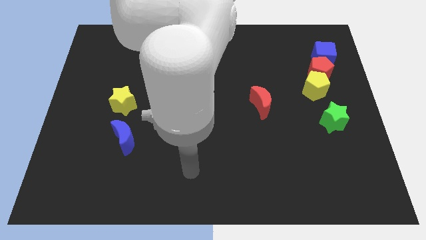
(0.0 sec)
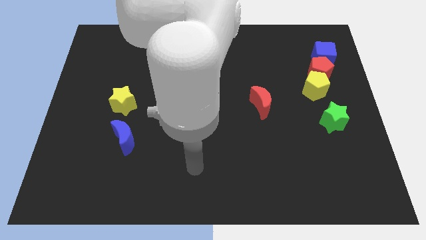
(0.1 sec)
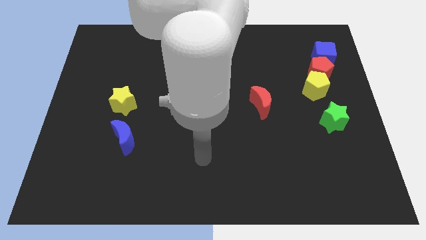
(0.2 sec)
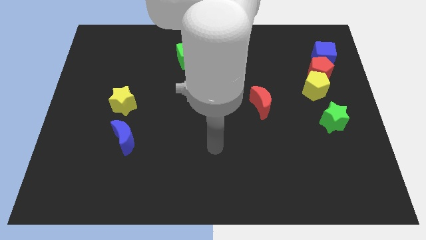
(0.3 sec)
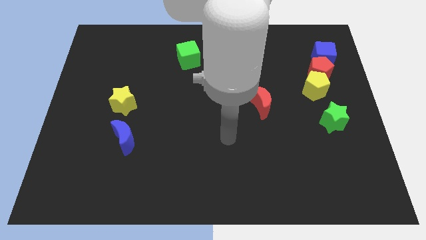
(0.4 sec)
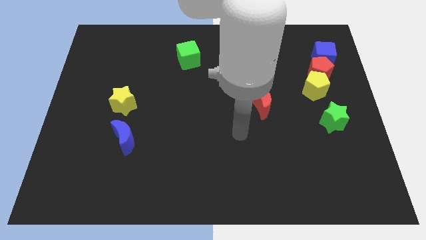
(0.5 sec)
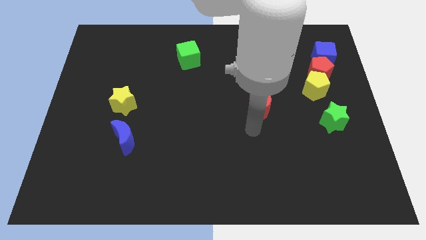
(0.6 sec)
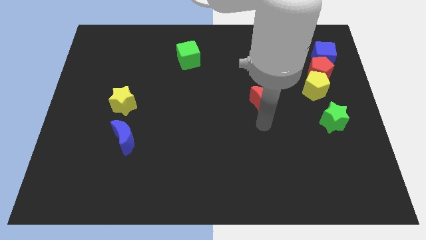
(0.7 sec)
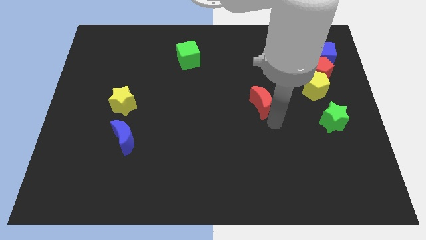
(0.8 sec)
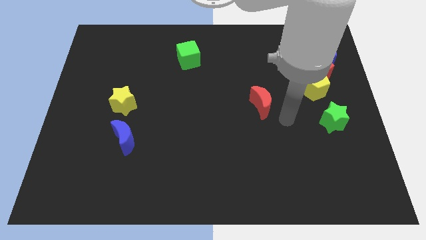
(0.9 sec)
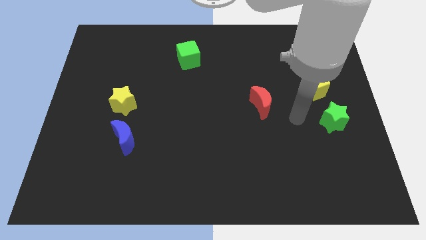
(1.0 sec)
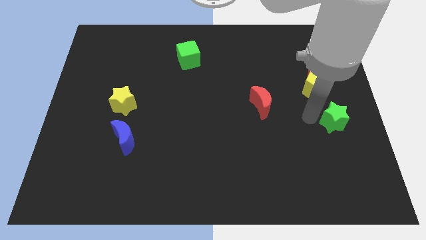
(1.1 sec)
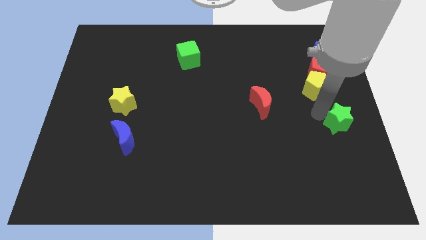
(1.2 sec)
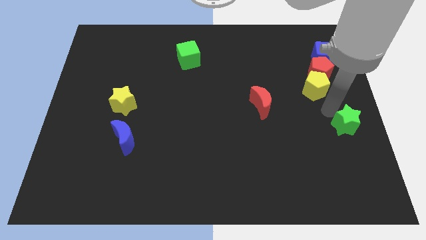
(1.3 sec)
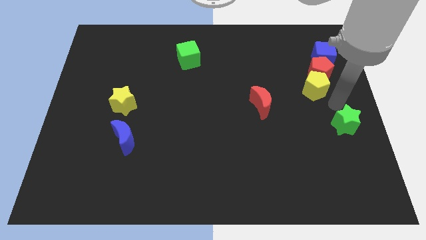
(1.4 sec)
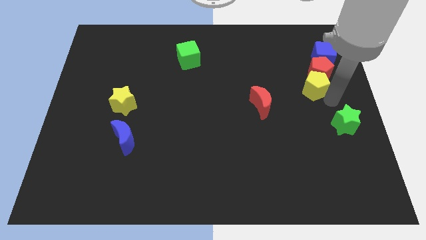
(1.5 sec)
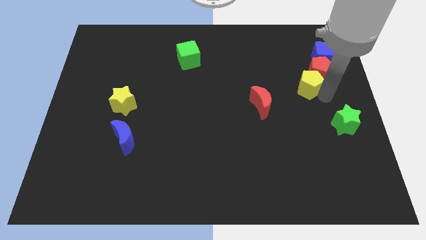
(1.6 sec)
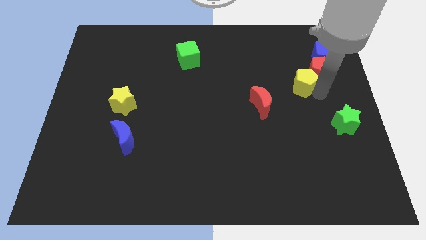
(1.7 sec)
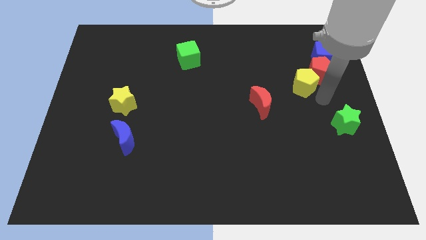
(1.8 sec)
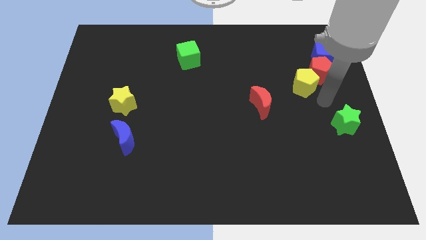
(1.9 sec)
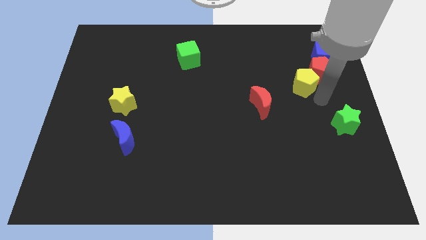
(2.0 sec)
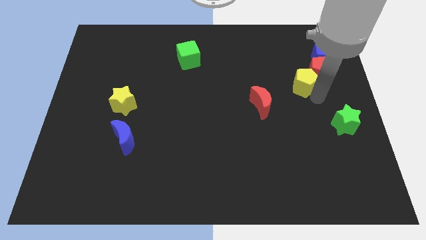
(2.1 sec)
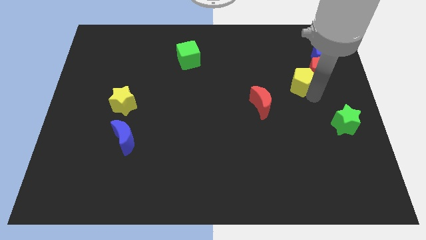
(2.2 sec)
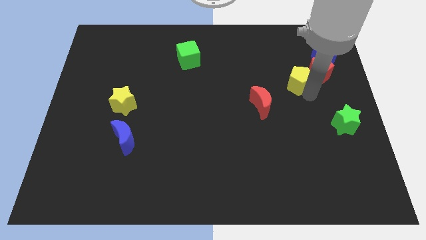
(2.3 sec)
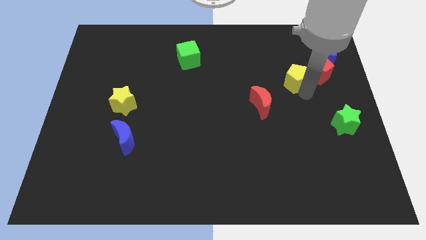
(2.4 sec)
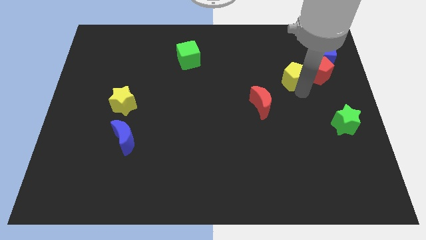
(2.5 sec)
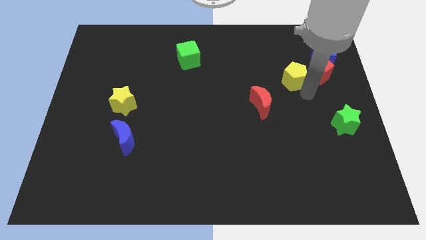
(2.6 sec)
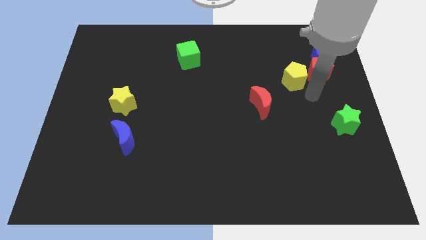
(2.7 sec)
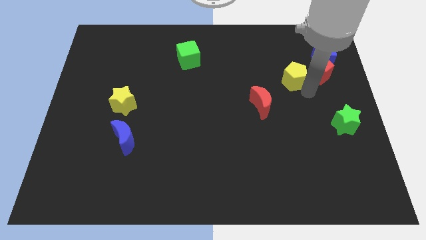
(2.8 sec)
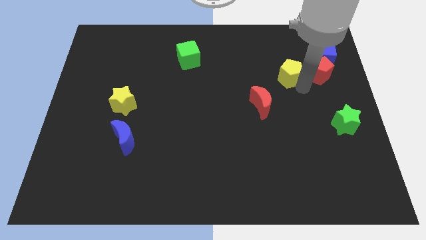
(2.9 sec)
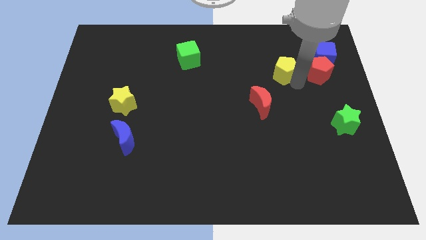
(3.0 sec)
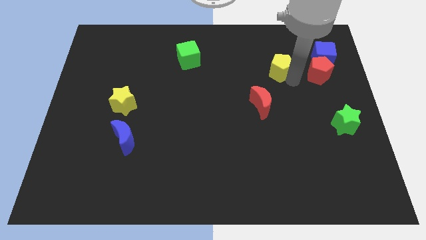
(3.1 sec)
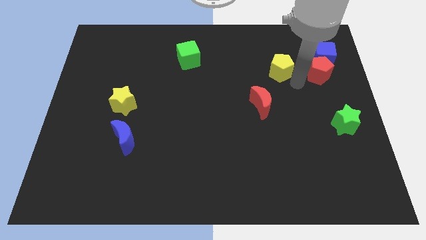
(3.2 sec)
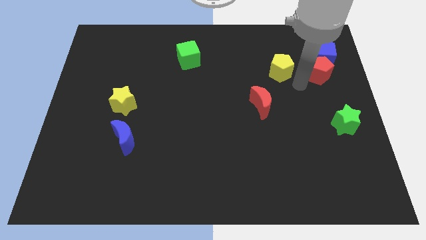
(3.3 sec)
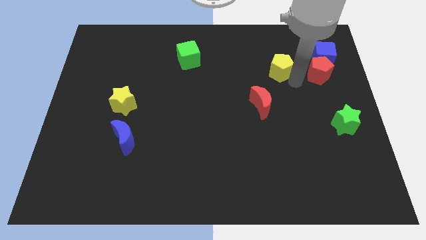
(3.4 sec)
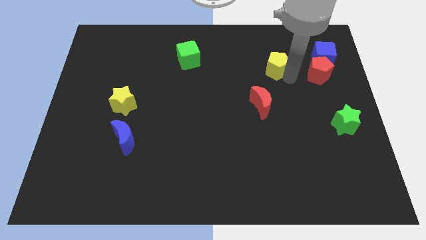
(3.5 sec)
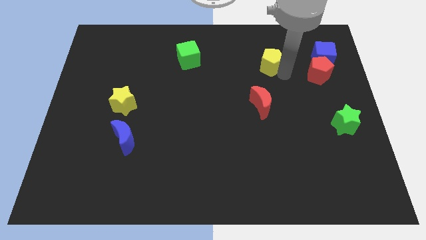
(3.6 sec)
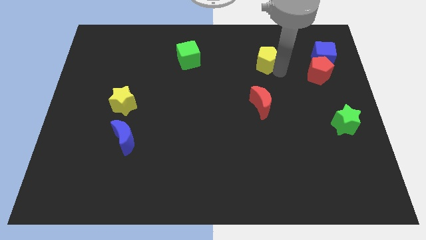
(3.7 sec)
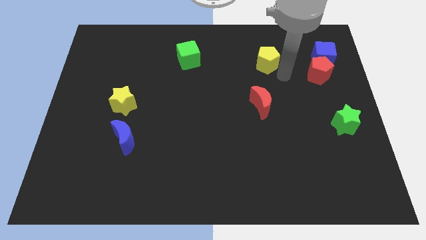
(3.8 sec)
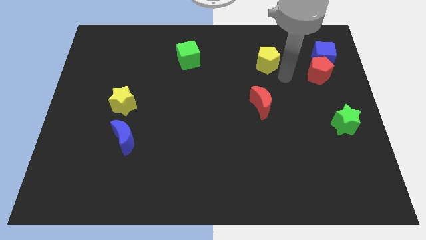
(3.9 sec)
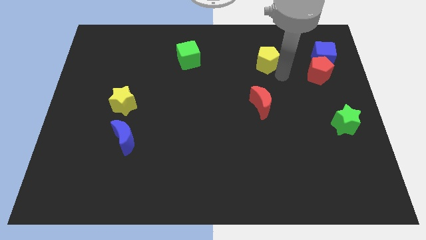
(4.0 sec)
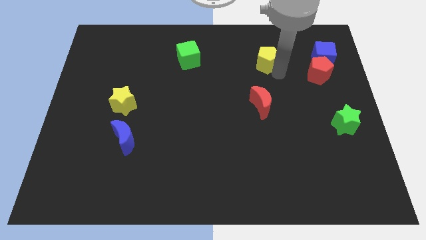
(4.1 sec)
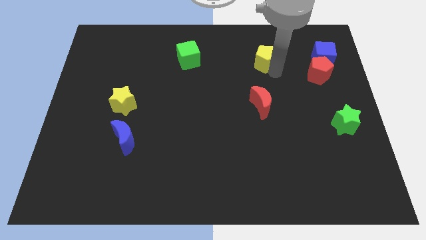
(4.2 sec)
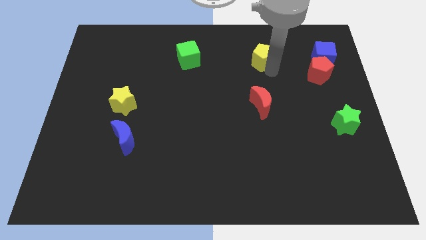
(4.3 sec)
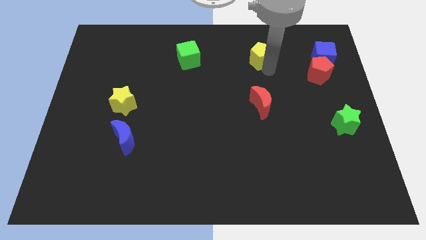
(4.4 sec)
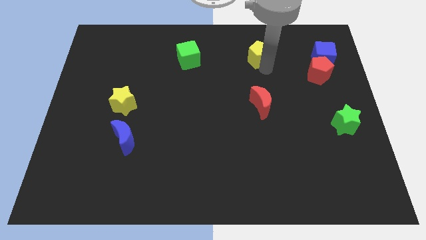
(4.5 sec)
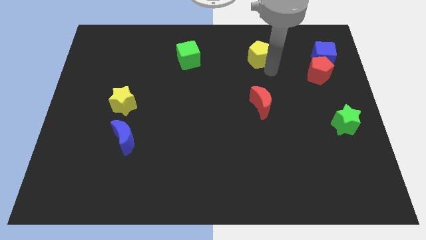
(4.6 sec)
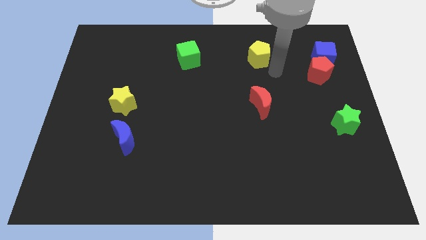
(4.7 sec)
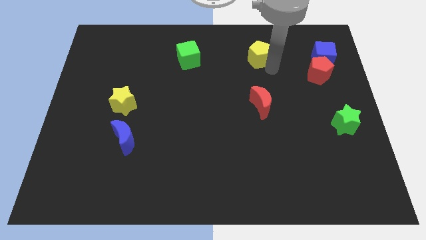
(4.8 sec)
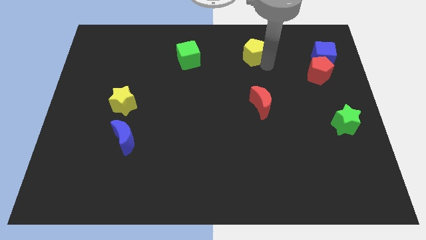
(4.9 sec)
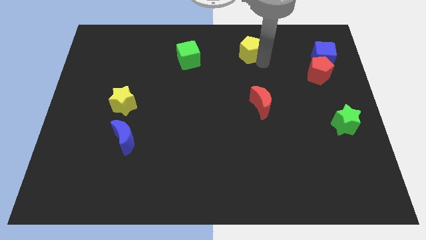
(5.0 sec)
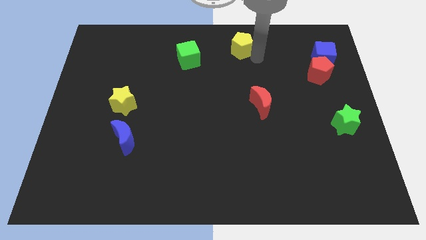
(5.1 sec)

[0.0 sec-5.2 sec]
put the yellow pentagon to the top

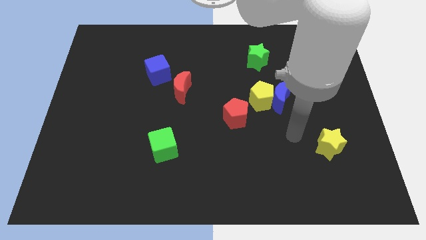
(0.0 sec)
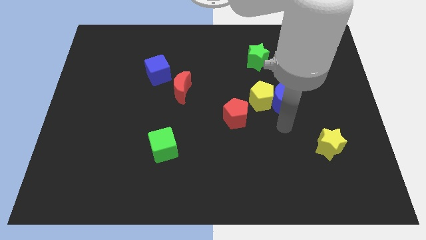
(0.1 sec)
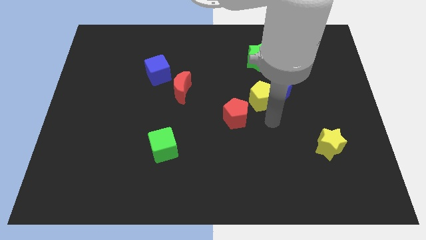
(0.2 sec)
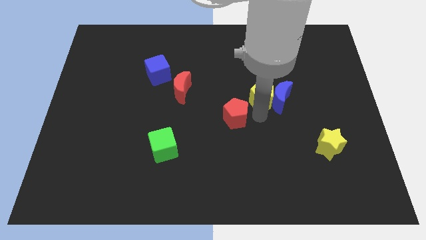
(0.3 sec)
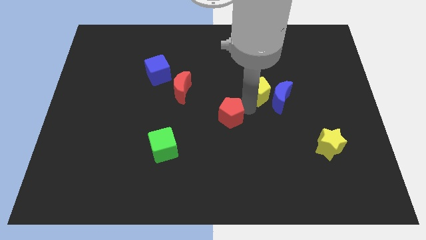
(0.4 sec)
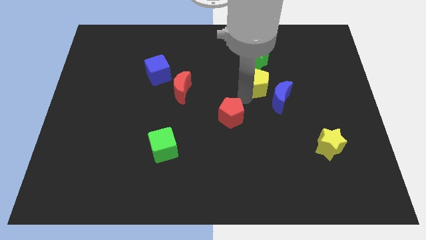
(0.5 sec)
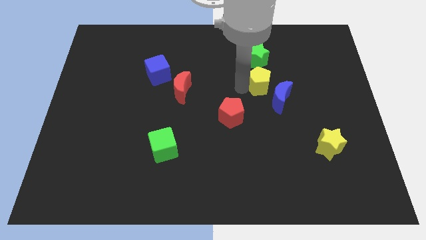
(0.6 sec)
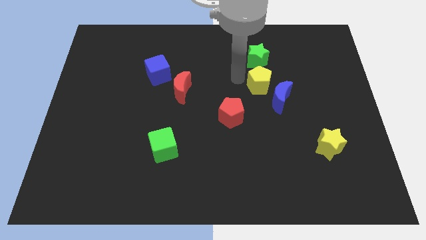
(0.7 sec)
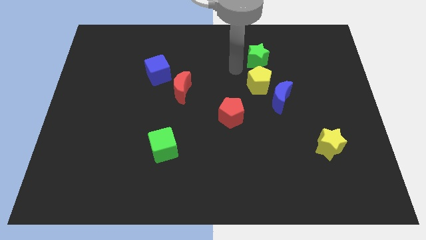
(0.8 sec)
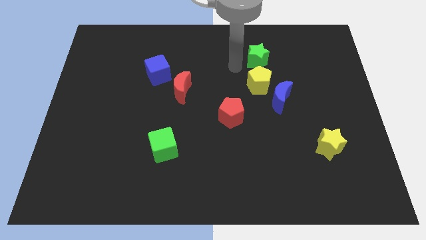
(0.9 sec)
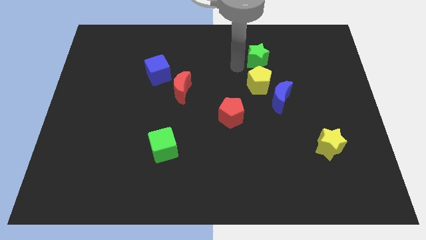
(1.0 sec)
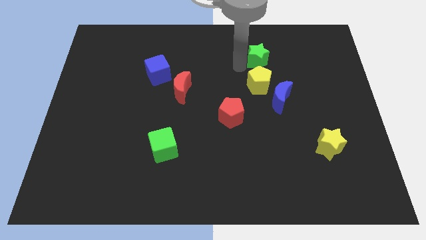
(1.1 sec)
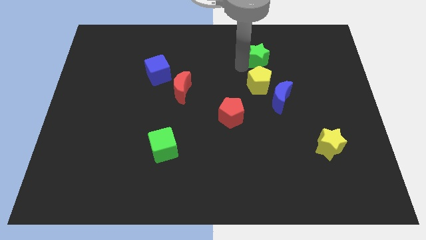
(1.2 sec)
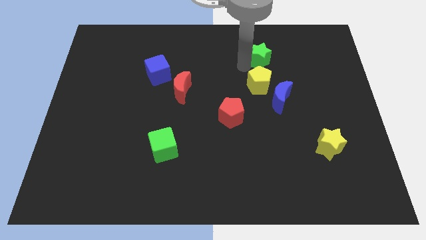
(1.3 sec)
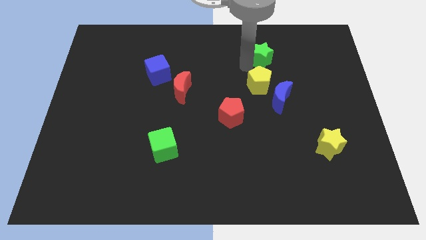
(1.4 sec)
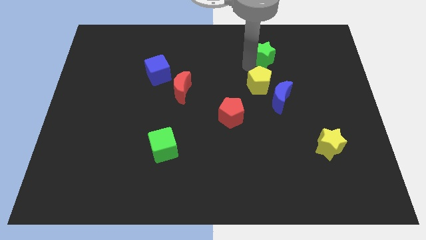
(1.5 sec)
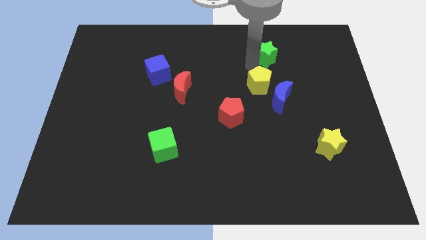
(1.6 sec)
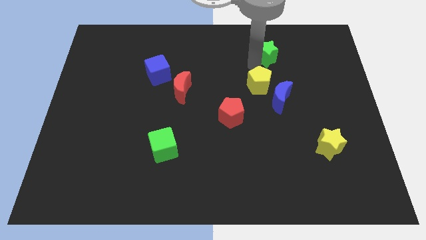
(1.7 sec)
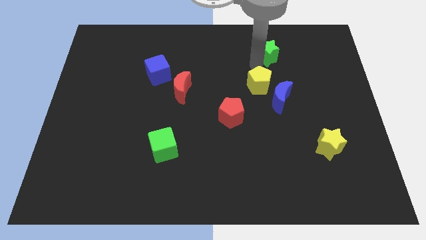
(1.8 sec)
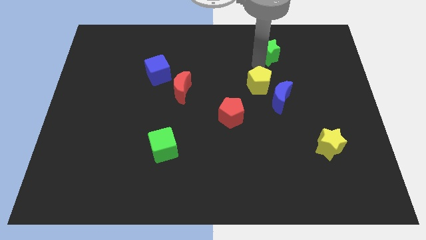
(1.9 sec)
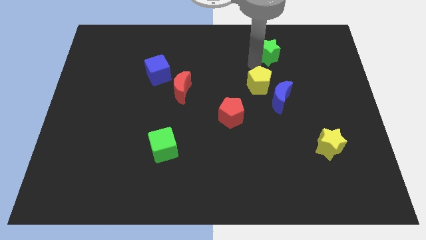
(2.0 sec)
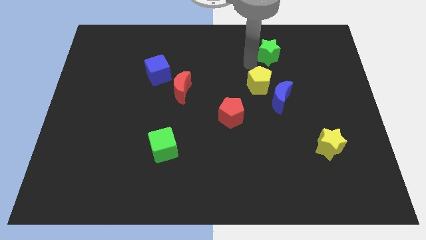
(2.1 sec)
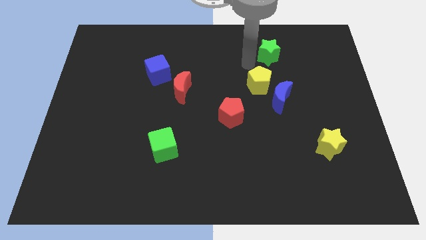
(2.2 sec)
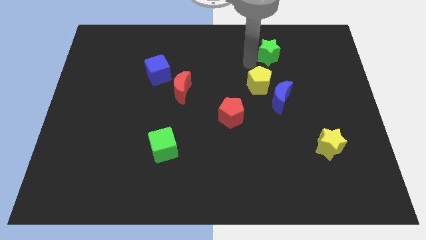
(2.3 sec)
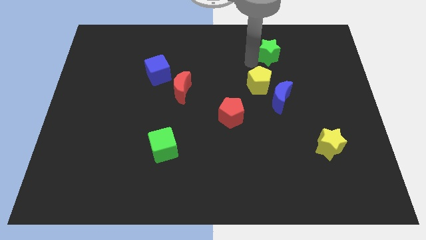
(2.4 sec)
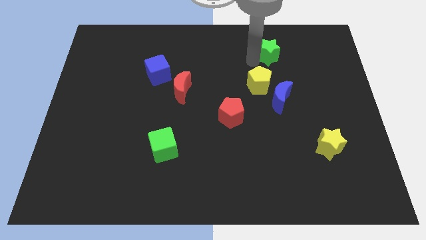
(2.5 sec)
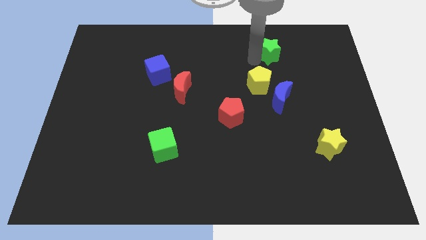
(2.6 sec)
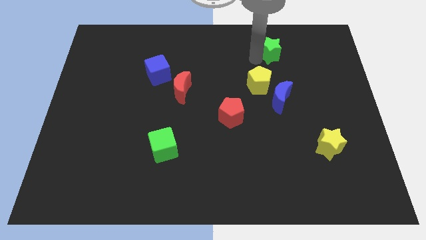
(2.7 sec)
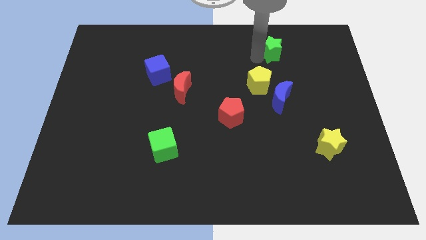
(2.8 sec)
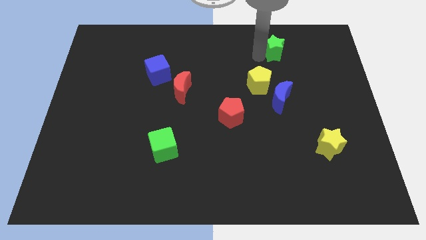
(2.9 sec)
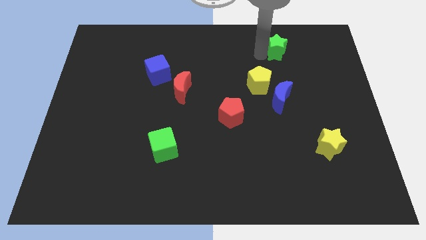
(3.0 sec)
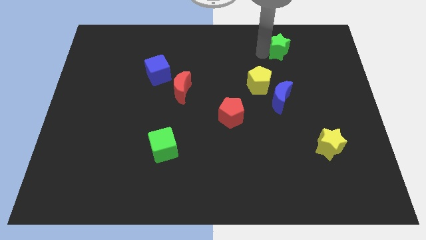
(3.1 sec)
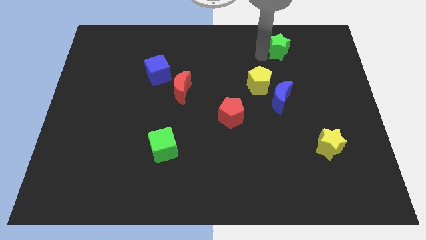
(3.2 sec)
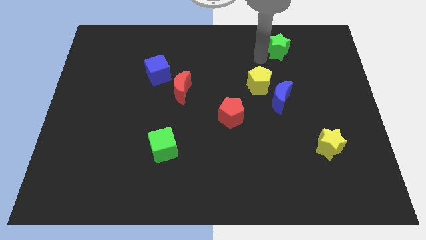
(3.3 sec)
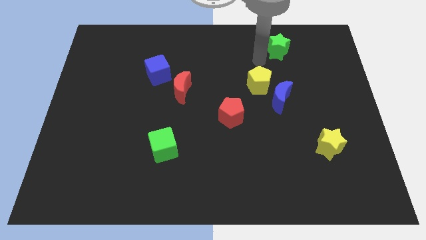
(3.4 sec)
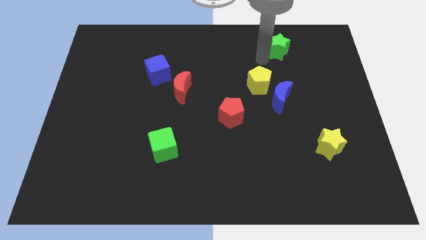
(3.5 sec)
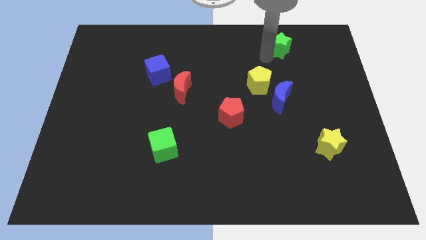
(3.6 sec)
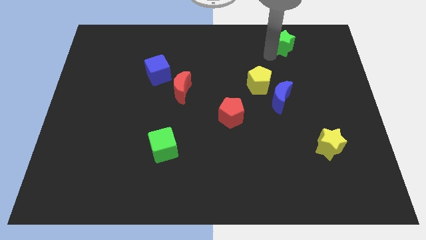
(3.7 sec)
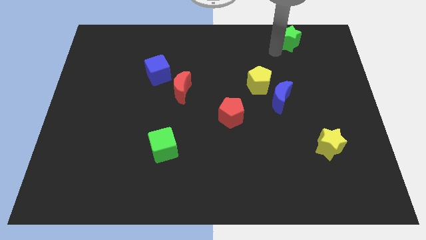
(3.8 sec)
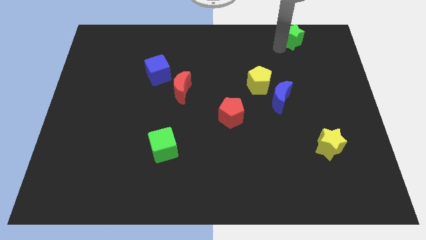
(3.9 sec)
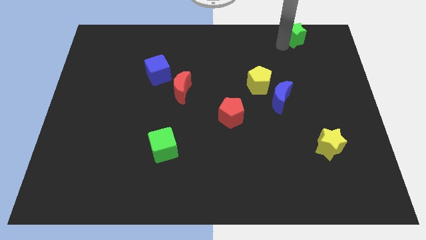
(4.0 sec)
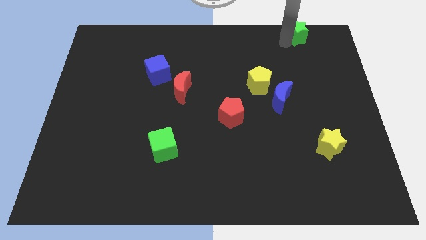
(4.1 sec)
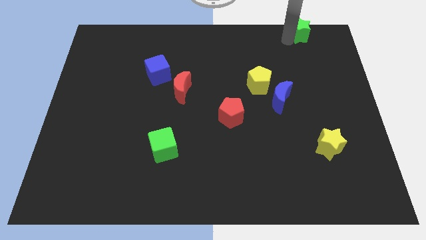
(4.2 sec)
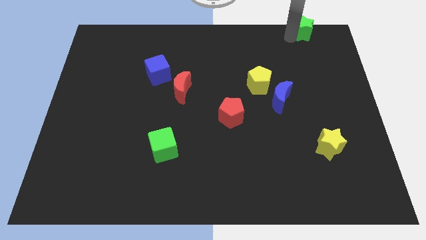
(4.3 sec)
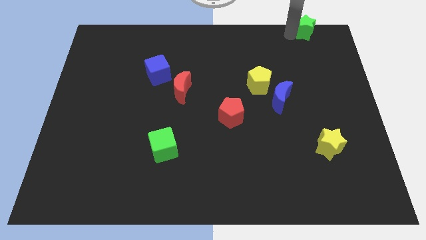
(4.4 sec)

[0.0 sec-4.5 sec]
slide the green star to the top right of the board
